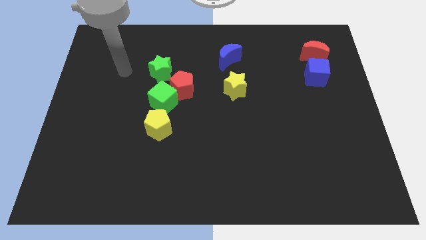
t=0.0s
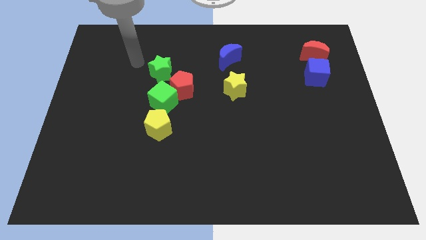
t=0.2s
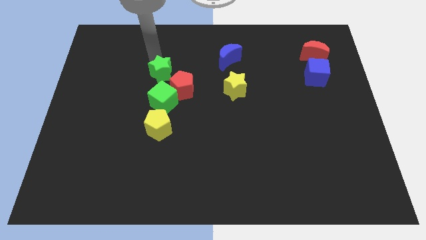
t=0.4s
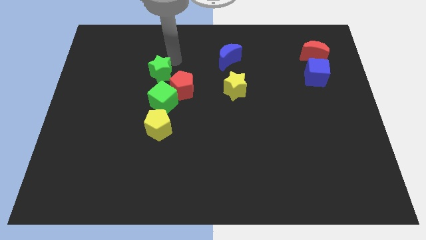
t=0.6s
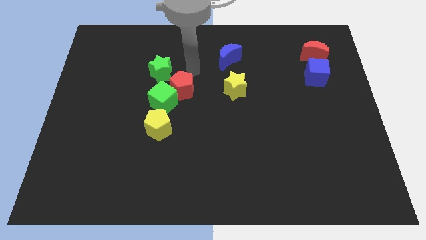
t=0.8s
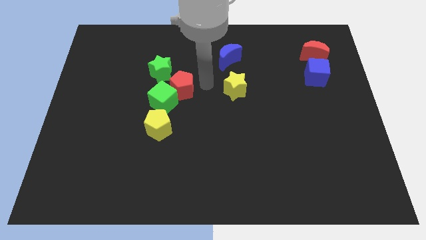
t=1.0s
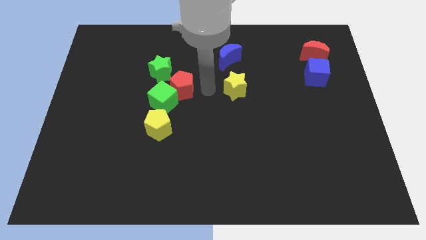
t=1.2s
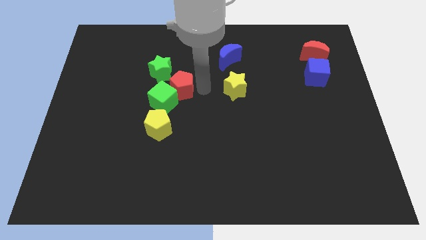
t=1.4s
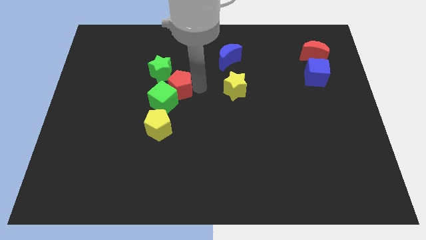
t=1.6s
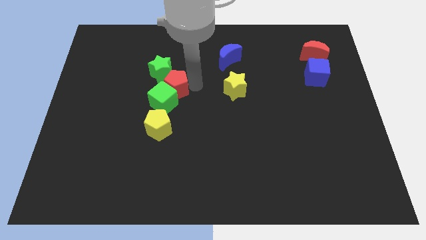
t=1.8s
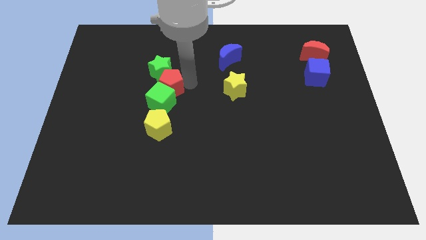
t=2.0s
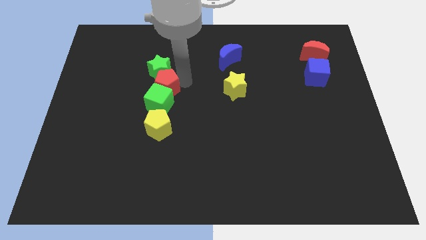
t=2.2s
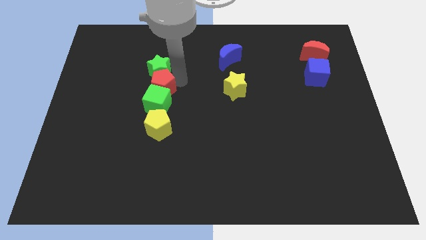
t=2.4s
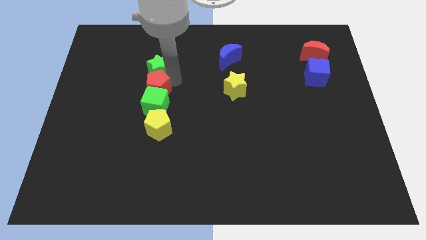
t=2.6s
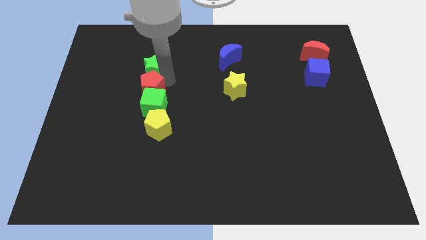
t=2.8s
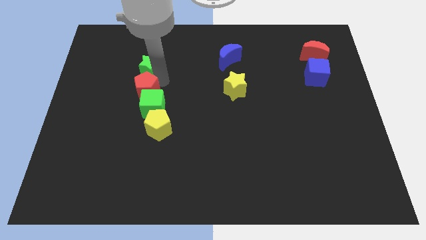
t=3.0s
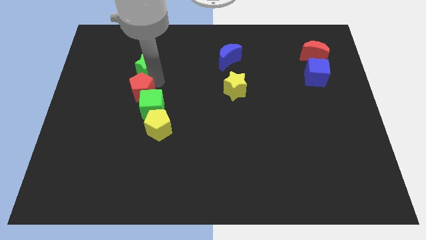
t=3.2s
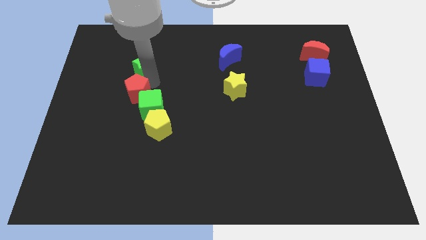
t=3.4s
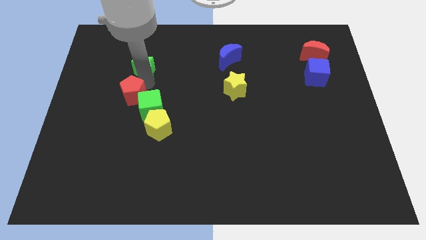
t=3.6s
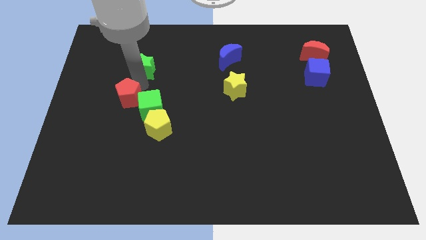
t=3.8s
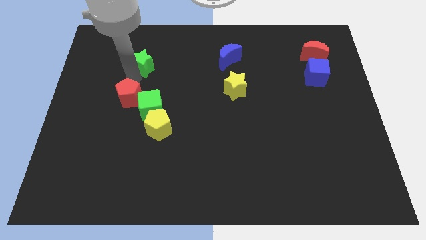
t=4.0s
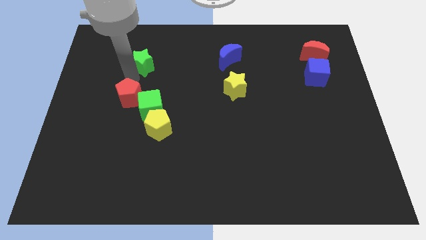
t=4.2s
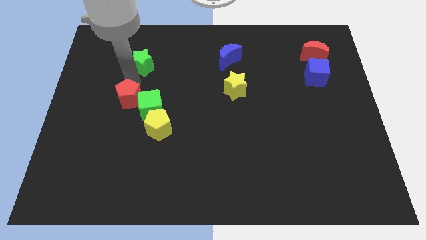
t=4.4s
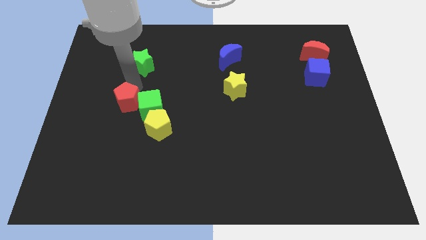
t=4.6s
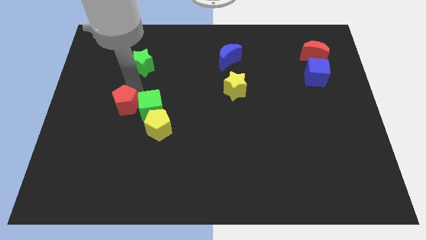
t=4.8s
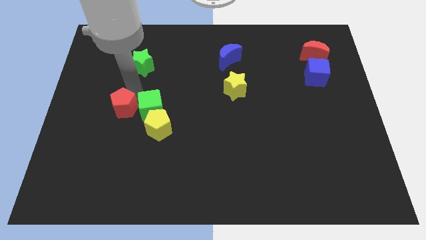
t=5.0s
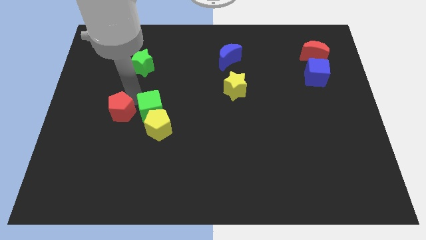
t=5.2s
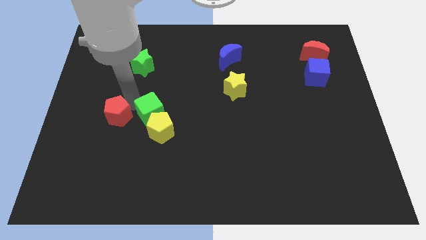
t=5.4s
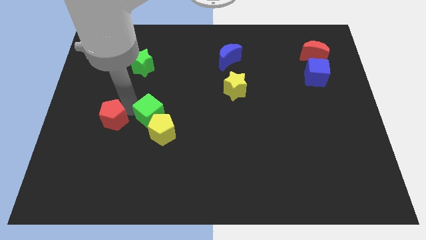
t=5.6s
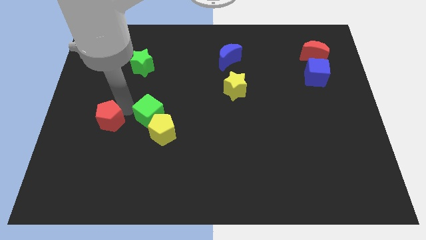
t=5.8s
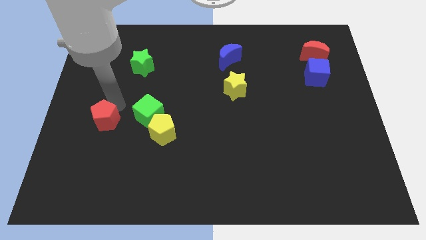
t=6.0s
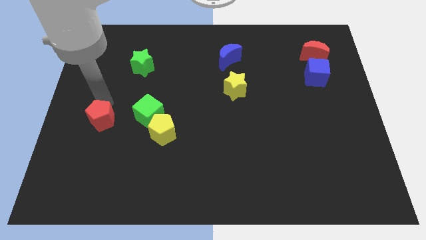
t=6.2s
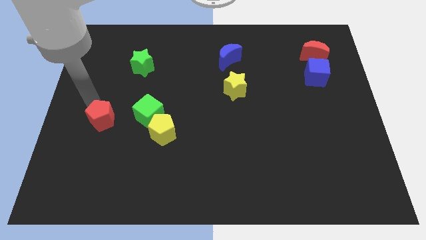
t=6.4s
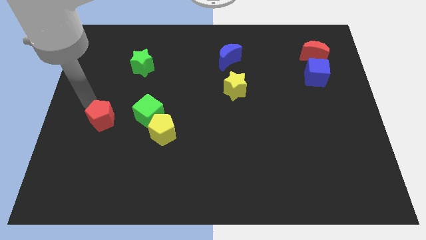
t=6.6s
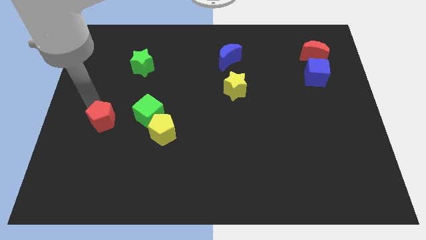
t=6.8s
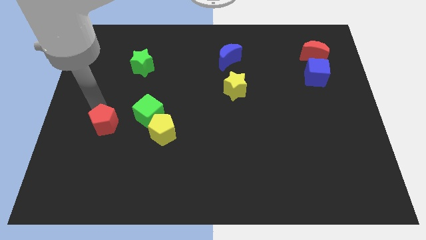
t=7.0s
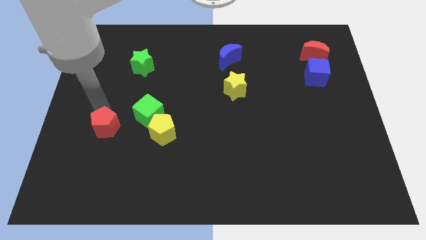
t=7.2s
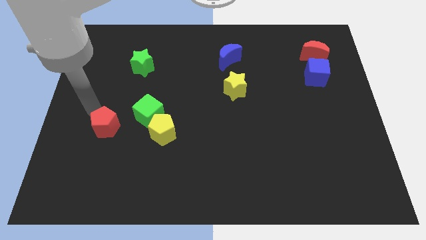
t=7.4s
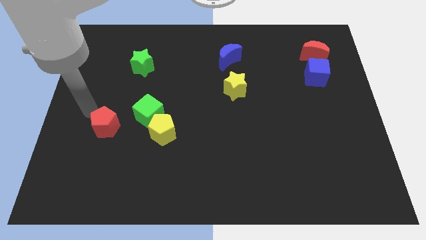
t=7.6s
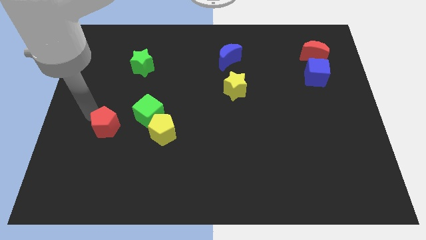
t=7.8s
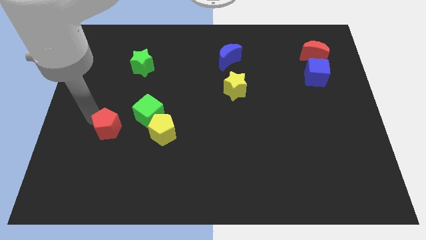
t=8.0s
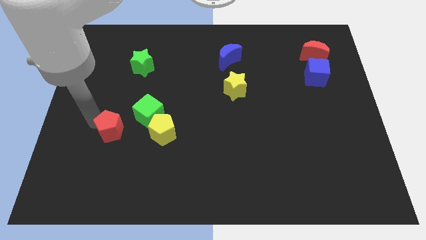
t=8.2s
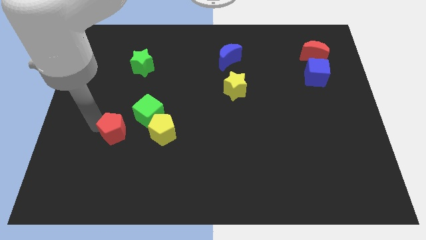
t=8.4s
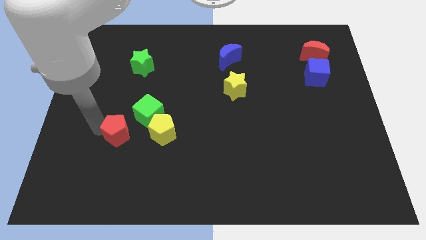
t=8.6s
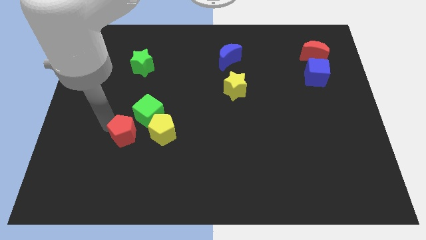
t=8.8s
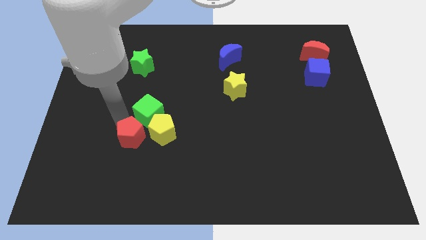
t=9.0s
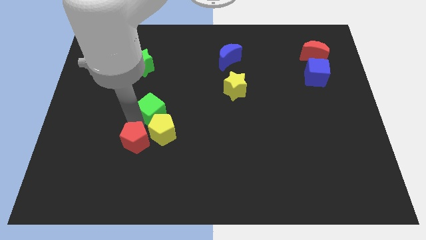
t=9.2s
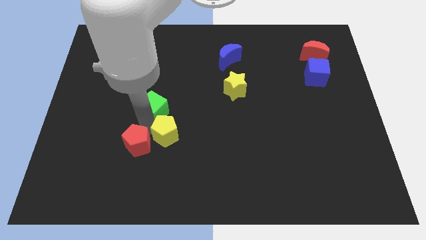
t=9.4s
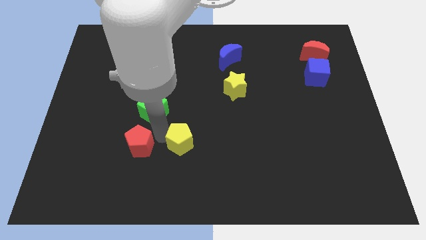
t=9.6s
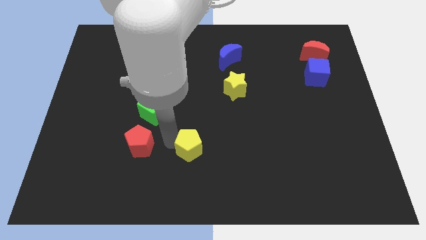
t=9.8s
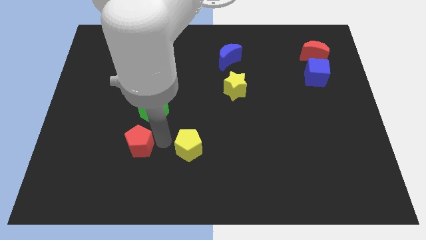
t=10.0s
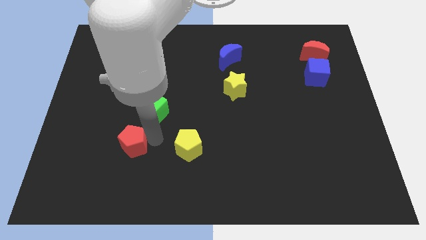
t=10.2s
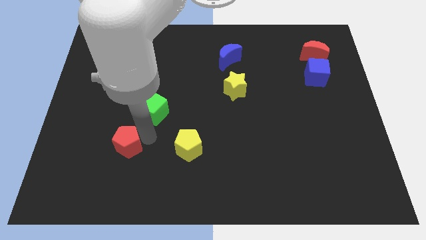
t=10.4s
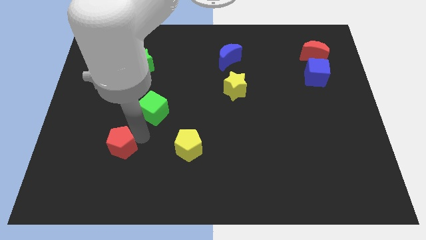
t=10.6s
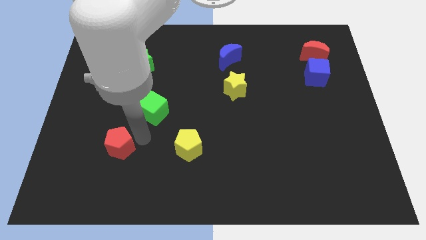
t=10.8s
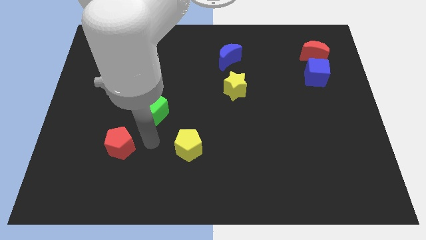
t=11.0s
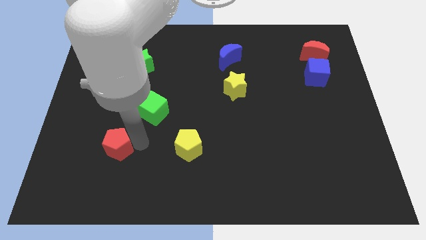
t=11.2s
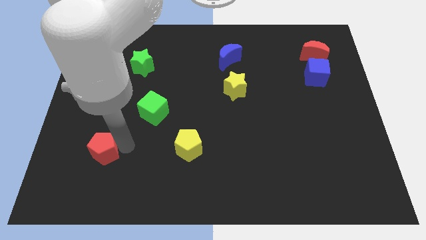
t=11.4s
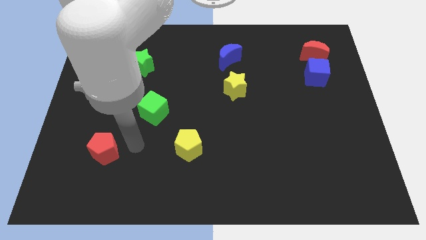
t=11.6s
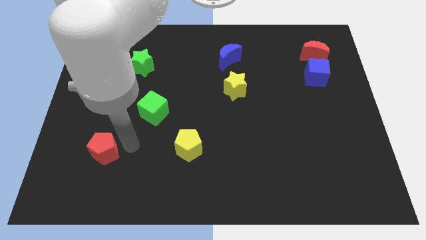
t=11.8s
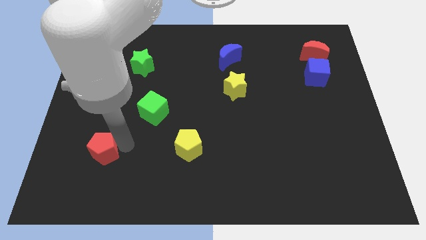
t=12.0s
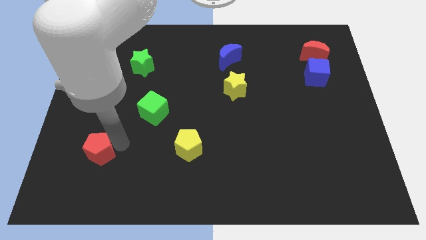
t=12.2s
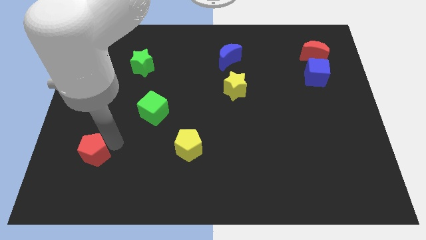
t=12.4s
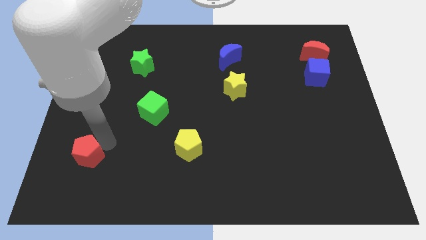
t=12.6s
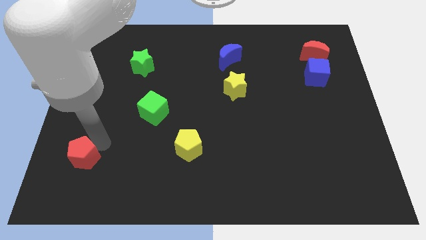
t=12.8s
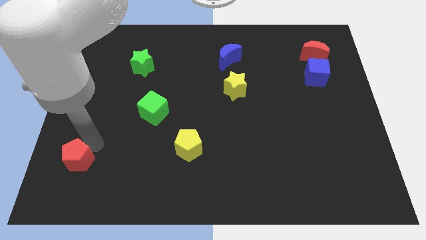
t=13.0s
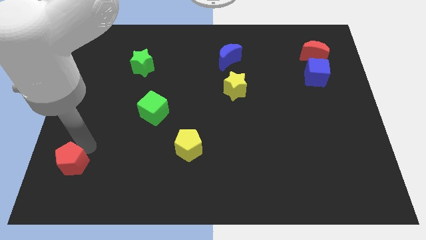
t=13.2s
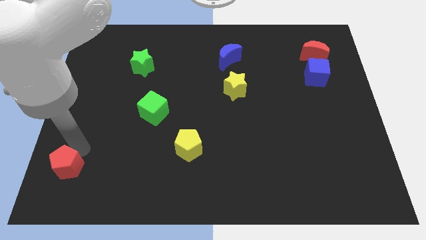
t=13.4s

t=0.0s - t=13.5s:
slide the red pentagon to the bottom left corner
